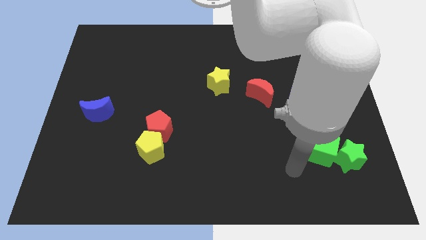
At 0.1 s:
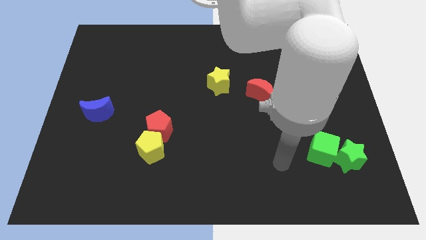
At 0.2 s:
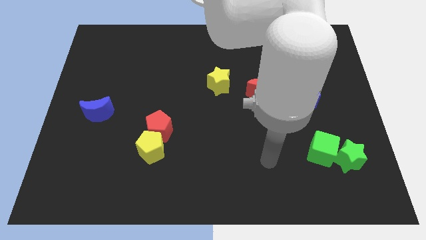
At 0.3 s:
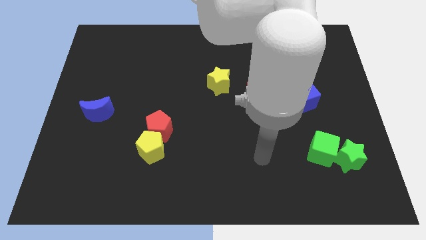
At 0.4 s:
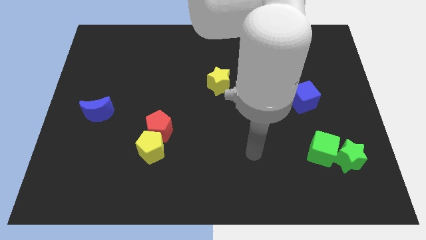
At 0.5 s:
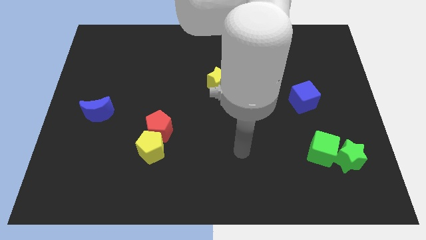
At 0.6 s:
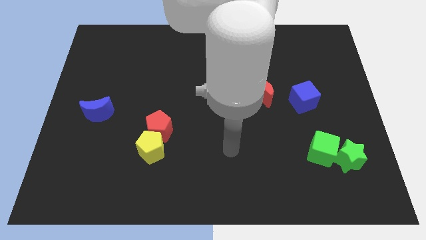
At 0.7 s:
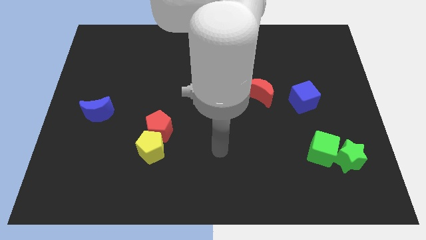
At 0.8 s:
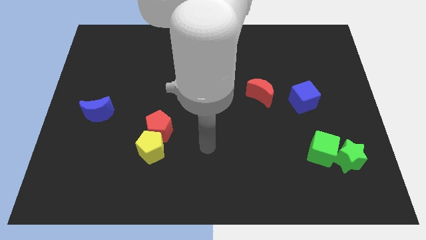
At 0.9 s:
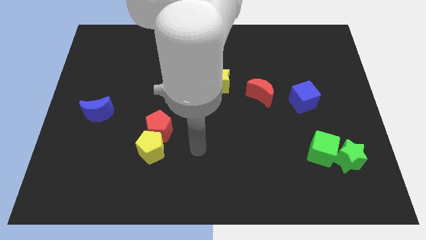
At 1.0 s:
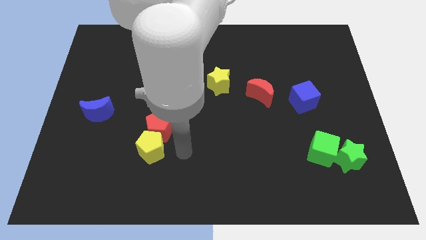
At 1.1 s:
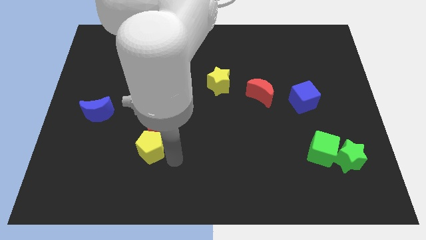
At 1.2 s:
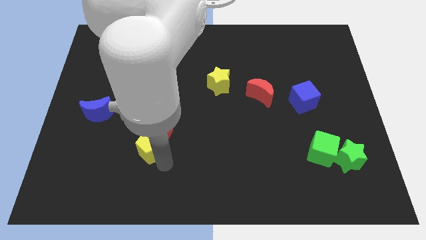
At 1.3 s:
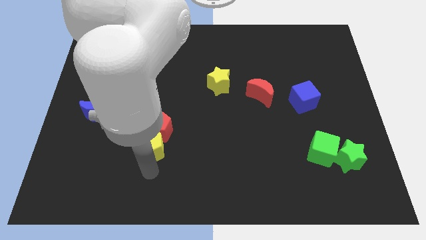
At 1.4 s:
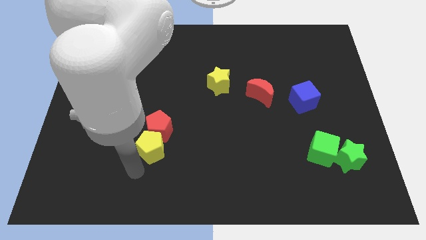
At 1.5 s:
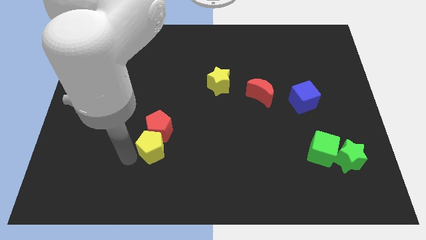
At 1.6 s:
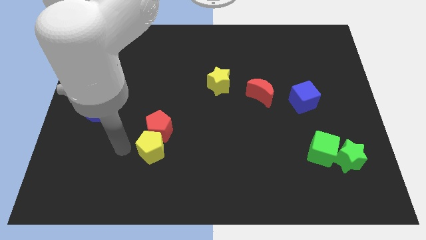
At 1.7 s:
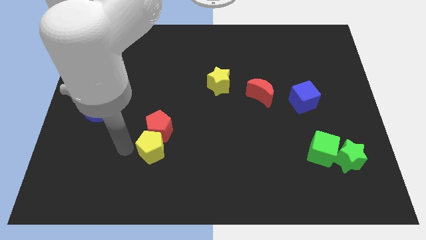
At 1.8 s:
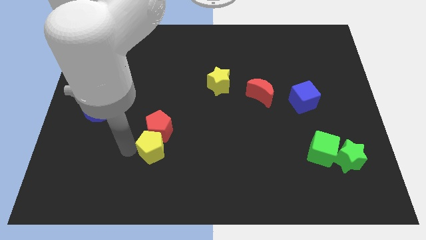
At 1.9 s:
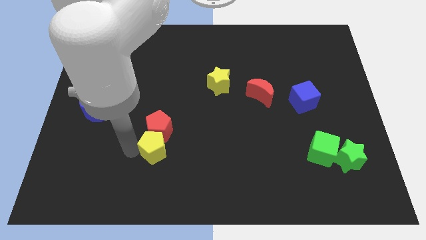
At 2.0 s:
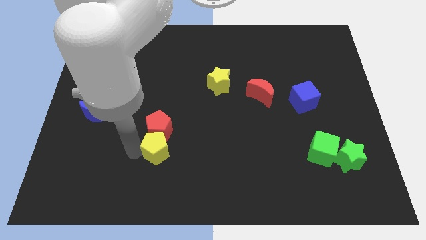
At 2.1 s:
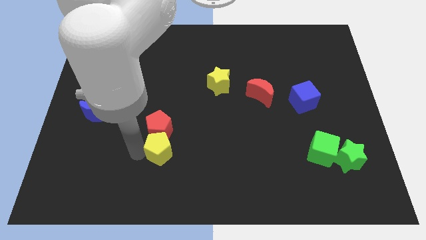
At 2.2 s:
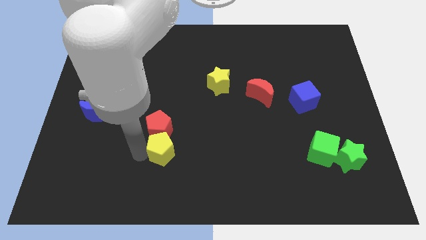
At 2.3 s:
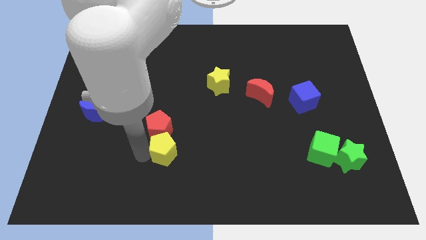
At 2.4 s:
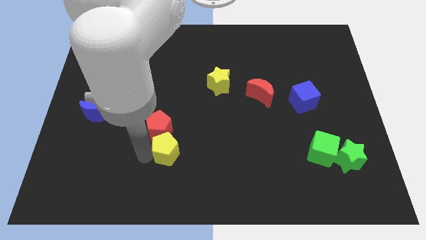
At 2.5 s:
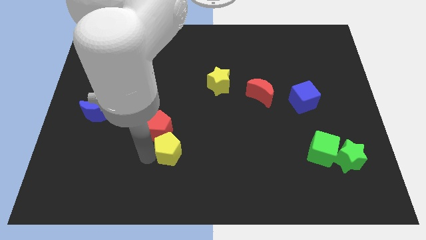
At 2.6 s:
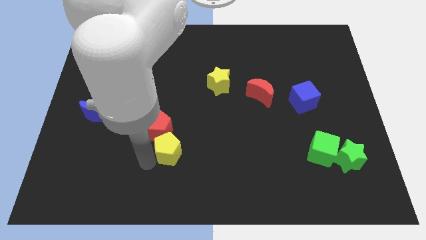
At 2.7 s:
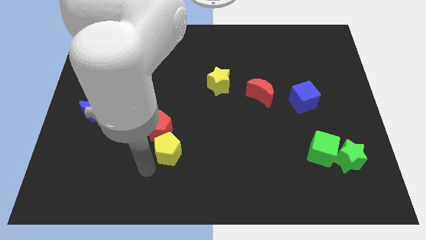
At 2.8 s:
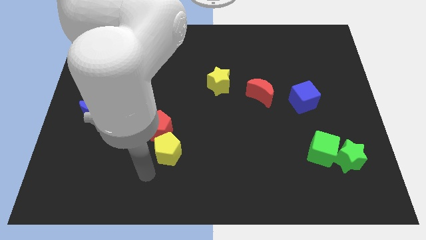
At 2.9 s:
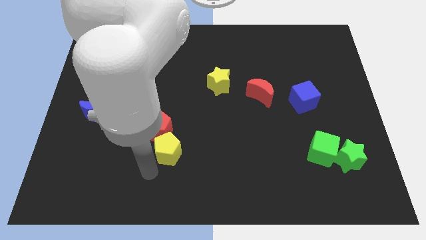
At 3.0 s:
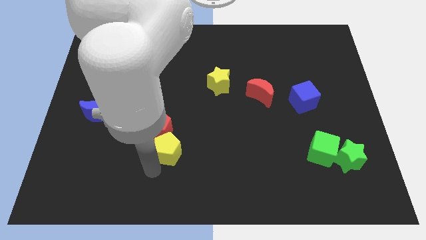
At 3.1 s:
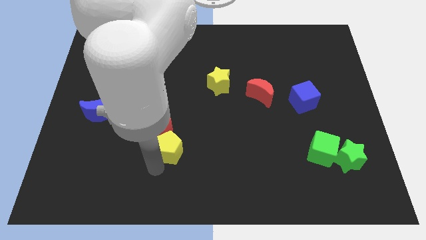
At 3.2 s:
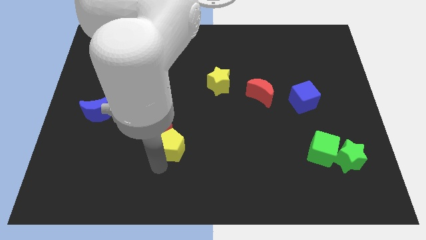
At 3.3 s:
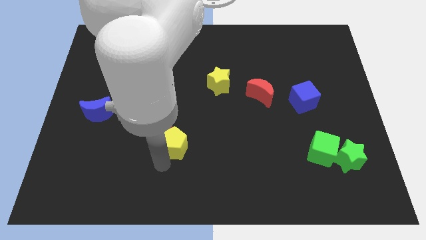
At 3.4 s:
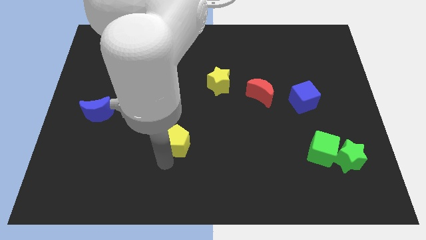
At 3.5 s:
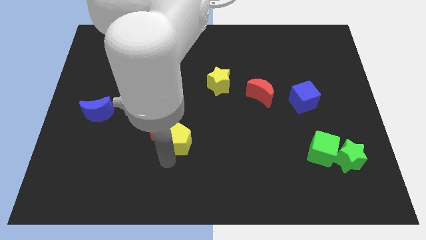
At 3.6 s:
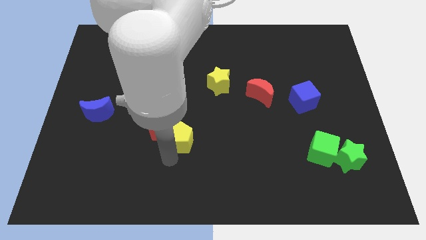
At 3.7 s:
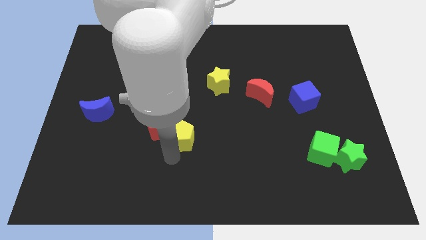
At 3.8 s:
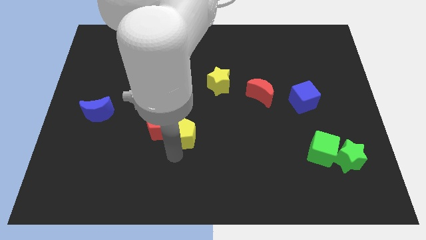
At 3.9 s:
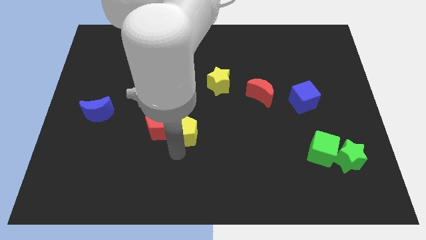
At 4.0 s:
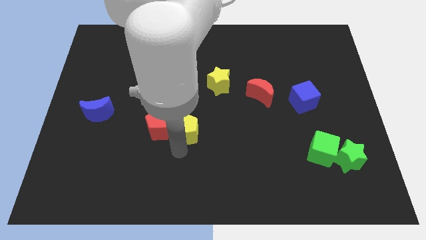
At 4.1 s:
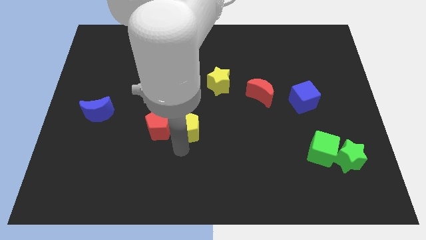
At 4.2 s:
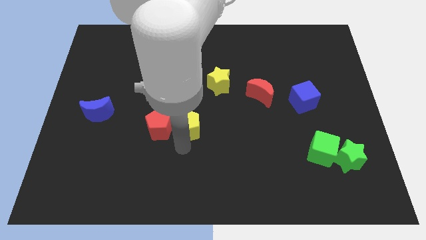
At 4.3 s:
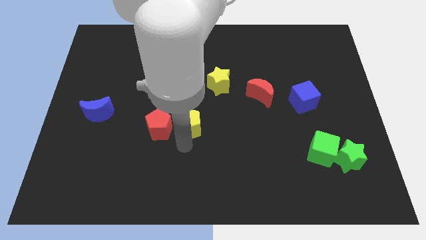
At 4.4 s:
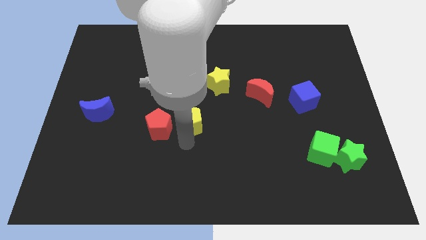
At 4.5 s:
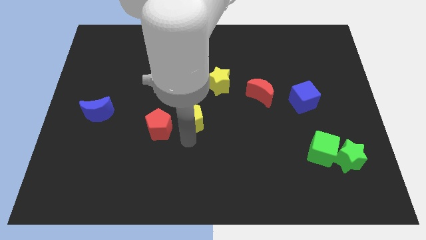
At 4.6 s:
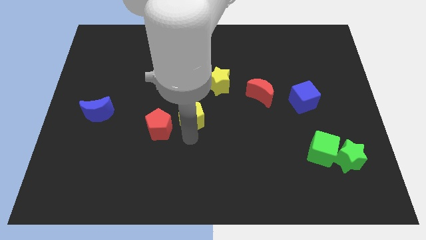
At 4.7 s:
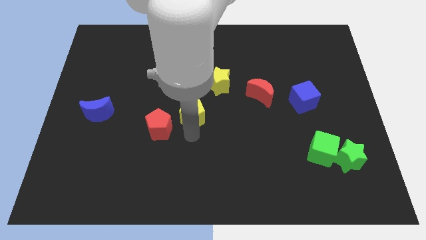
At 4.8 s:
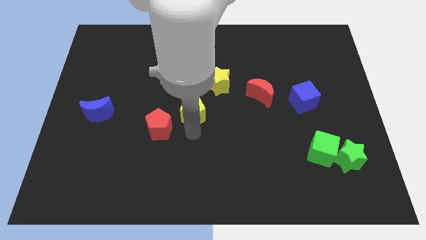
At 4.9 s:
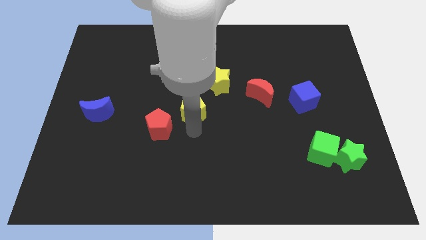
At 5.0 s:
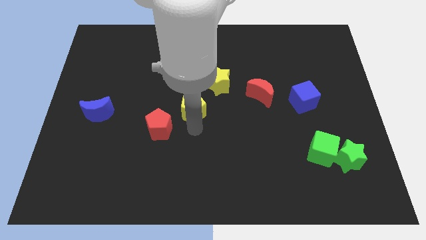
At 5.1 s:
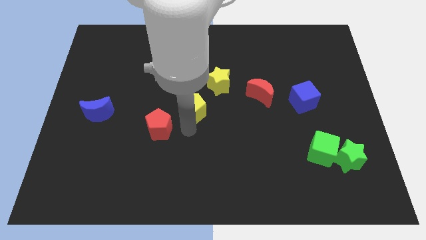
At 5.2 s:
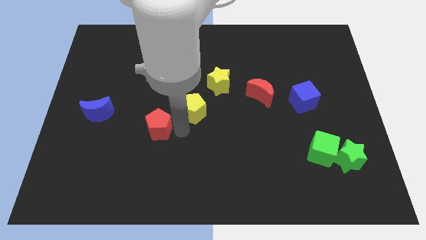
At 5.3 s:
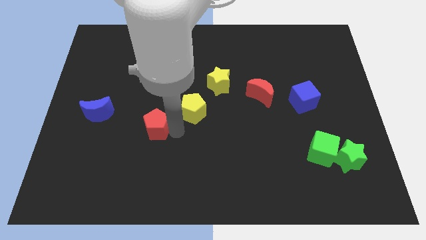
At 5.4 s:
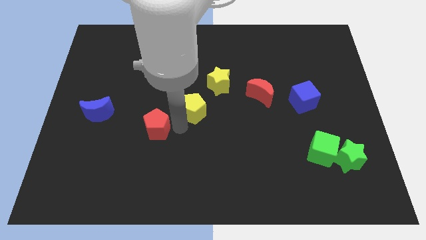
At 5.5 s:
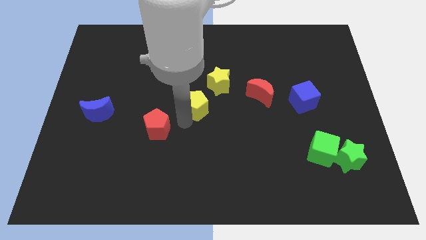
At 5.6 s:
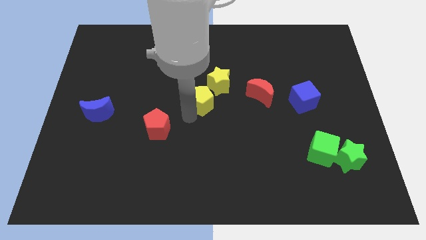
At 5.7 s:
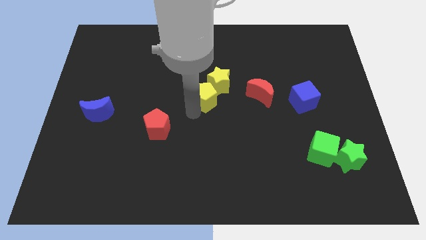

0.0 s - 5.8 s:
slide the yellow pentagon close to the yellow star

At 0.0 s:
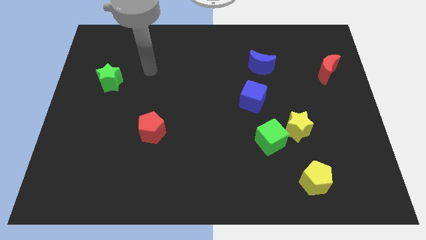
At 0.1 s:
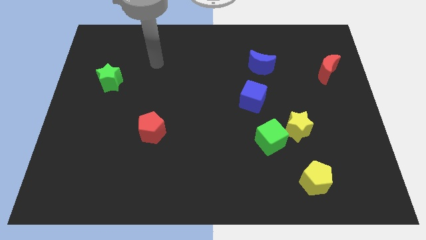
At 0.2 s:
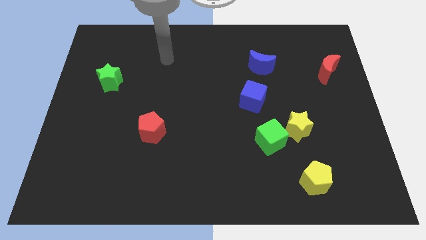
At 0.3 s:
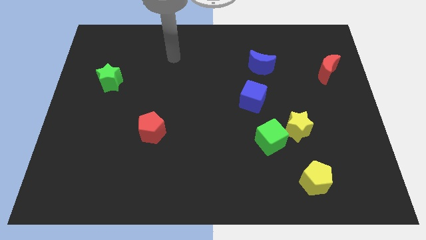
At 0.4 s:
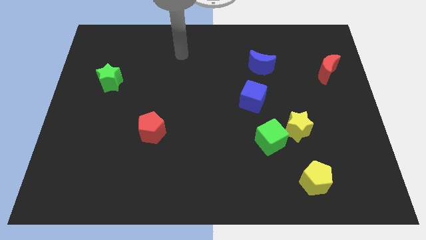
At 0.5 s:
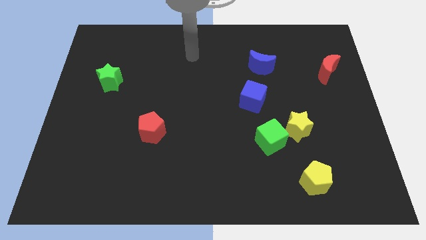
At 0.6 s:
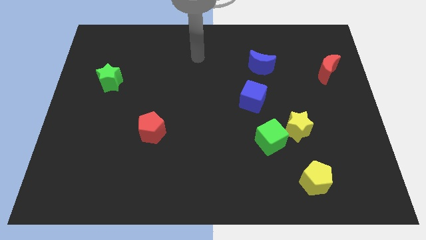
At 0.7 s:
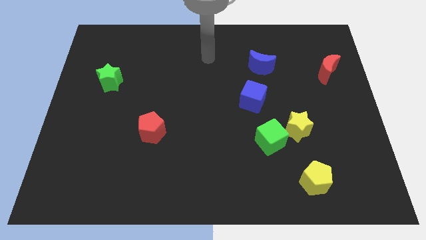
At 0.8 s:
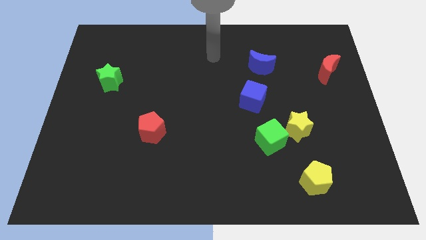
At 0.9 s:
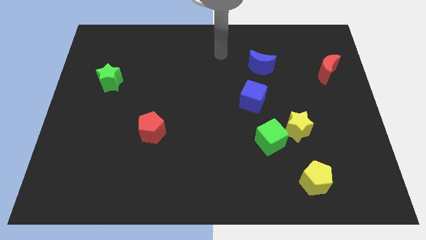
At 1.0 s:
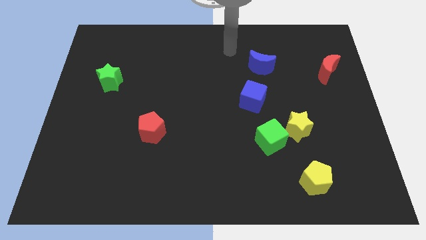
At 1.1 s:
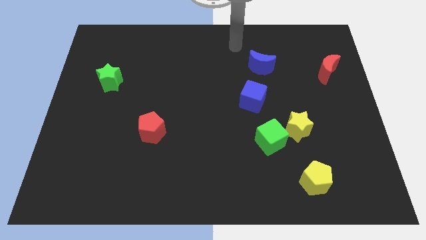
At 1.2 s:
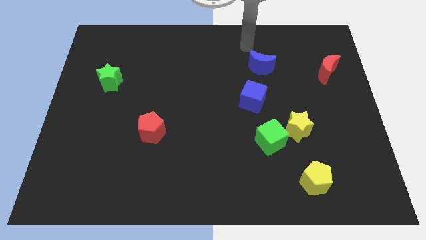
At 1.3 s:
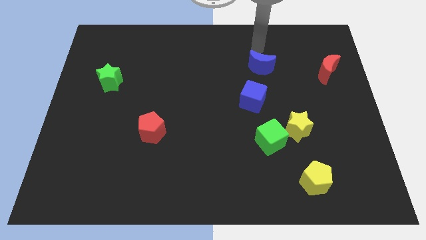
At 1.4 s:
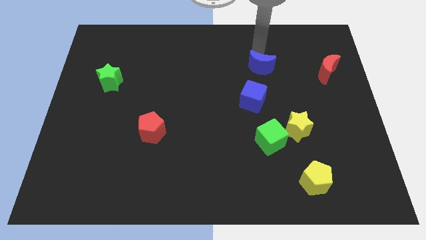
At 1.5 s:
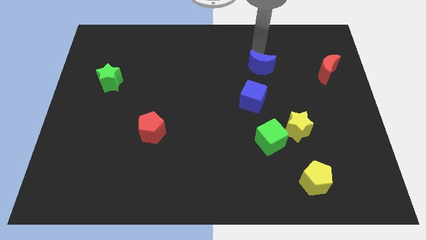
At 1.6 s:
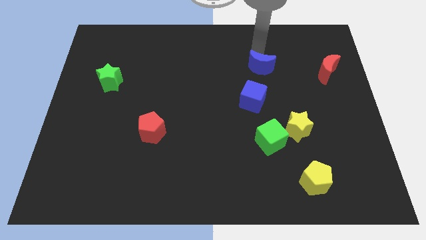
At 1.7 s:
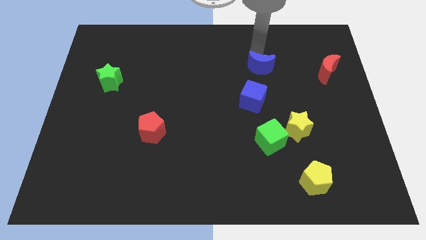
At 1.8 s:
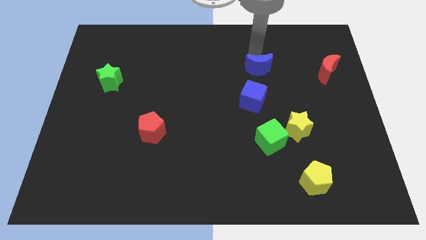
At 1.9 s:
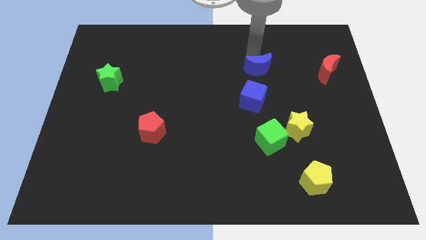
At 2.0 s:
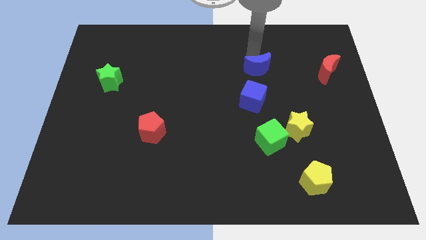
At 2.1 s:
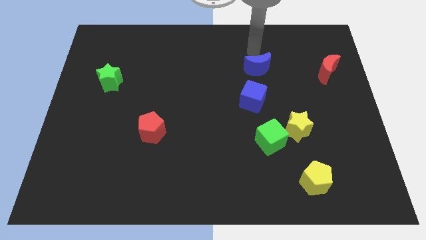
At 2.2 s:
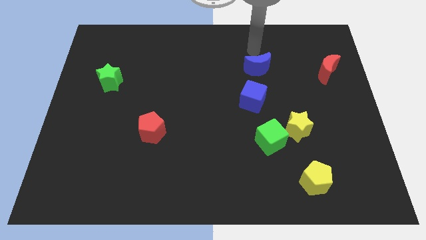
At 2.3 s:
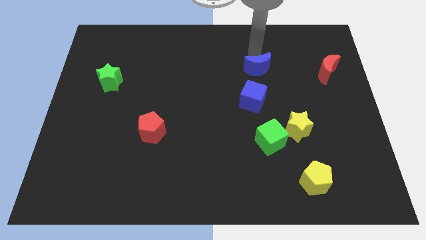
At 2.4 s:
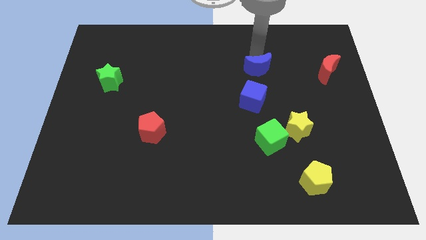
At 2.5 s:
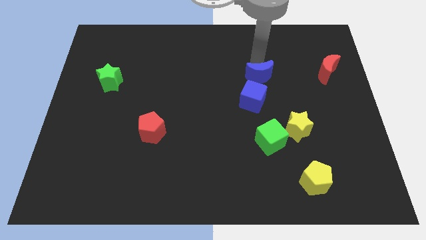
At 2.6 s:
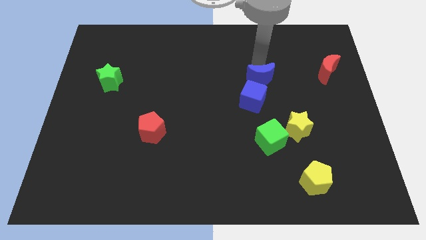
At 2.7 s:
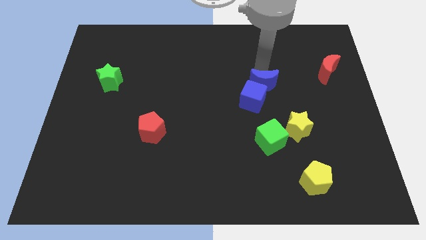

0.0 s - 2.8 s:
put the blue moon next to the blue cube
